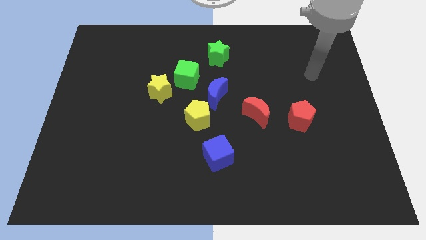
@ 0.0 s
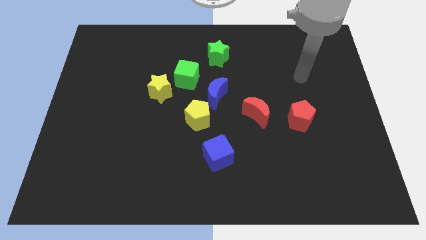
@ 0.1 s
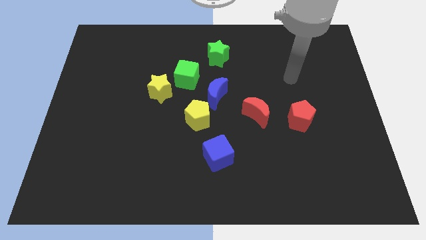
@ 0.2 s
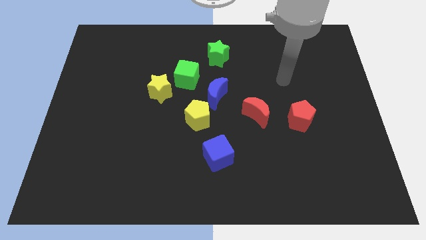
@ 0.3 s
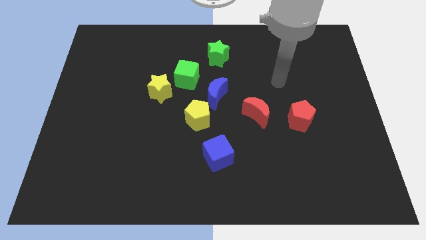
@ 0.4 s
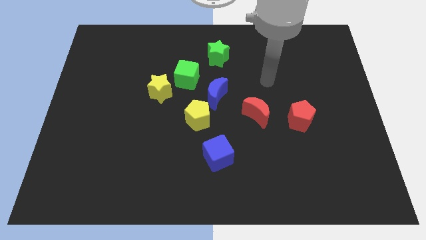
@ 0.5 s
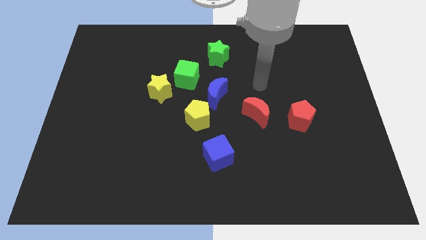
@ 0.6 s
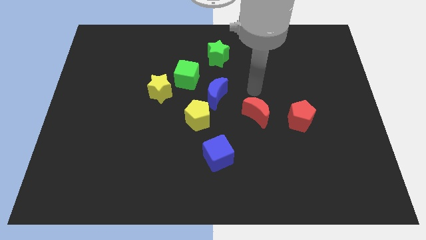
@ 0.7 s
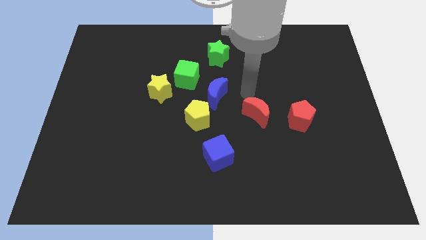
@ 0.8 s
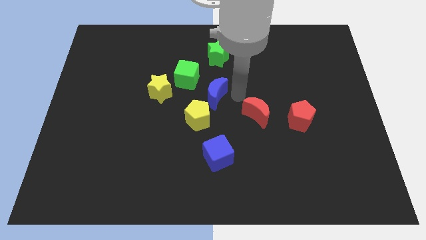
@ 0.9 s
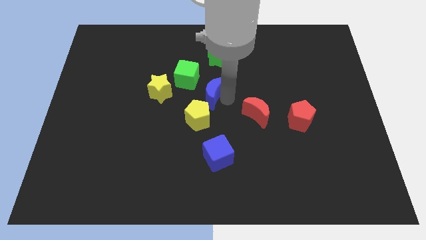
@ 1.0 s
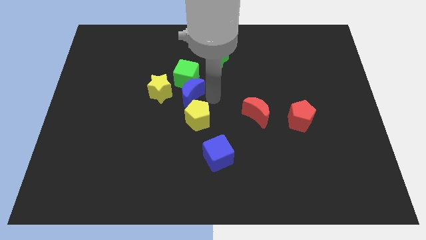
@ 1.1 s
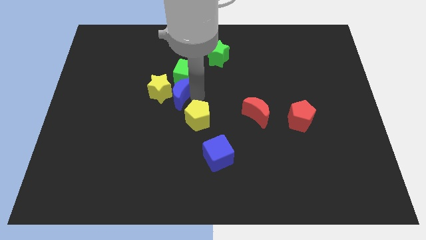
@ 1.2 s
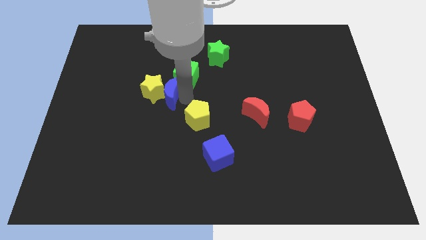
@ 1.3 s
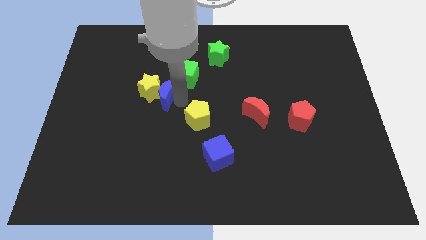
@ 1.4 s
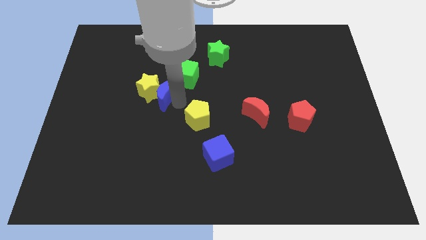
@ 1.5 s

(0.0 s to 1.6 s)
separate the yellow pentagon from the blue moon

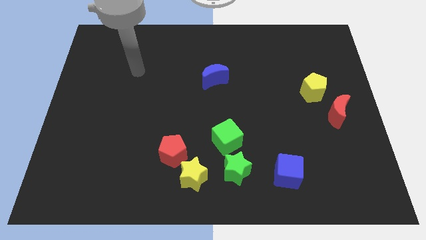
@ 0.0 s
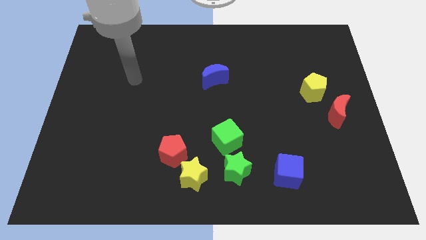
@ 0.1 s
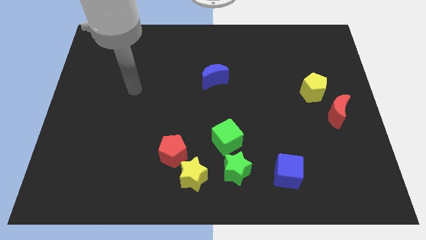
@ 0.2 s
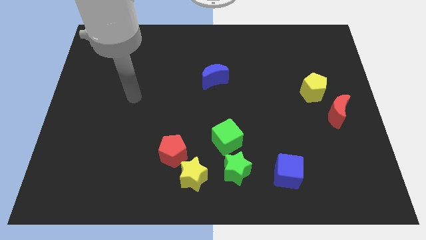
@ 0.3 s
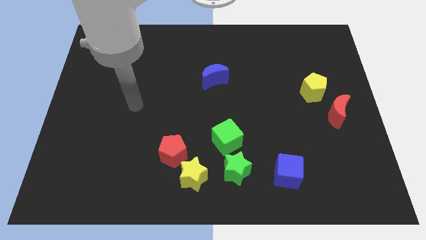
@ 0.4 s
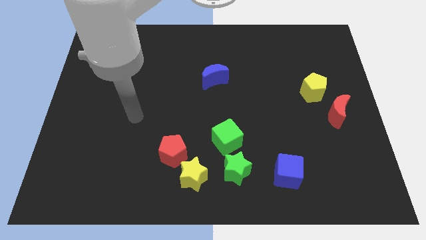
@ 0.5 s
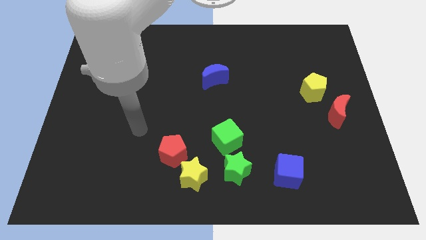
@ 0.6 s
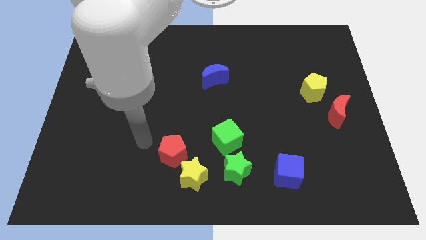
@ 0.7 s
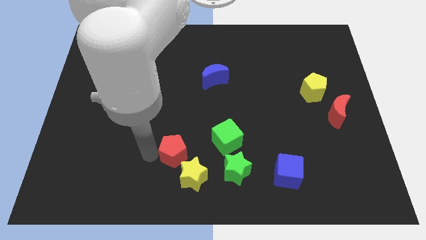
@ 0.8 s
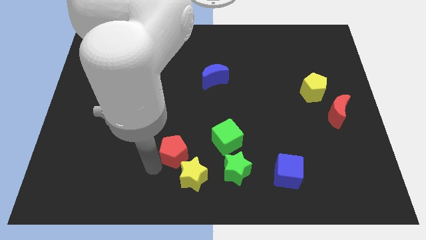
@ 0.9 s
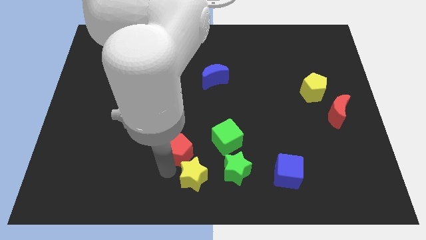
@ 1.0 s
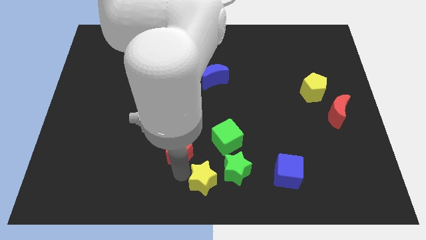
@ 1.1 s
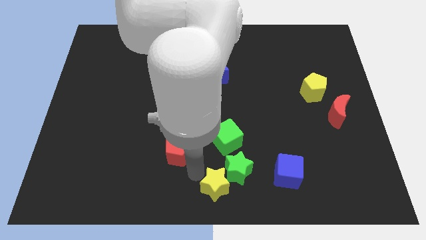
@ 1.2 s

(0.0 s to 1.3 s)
separate the red pentagon from the yellow star

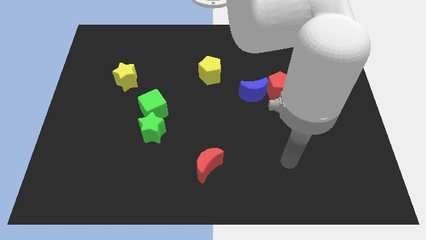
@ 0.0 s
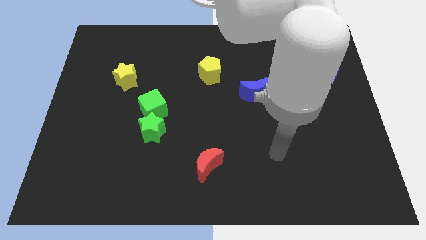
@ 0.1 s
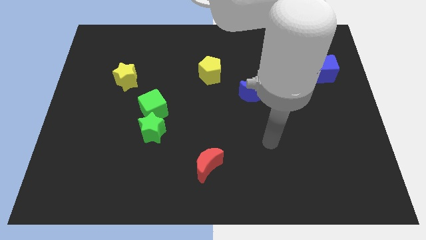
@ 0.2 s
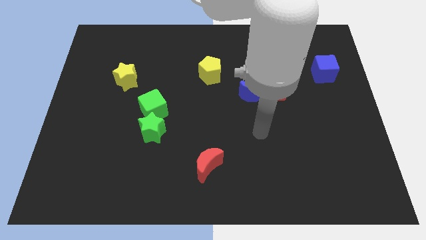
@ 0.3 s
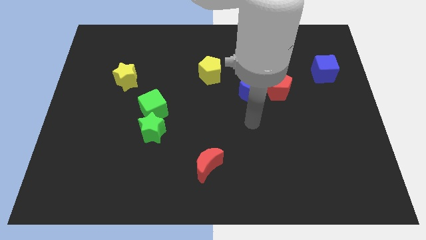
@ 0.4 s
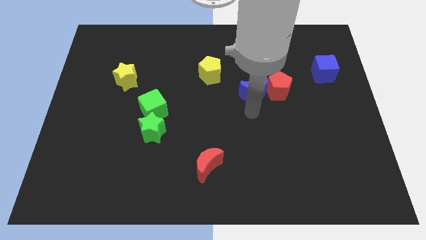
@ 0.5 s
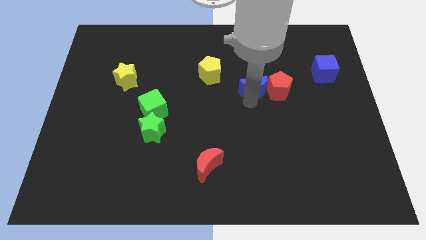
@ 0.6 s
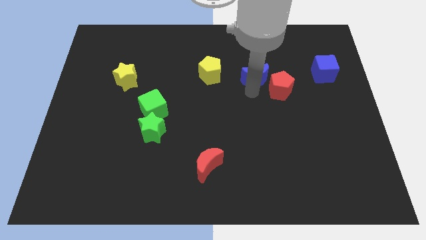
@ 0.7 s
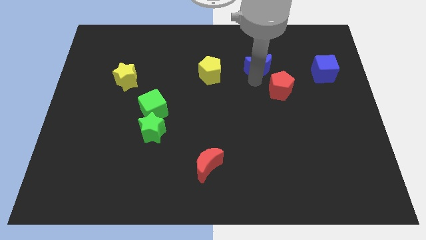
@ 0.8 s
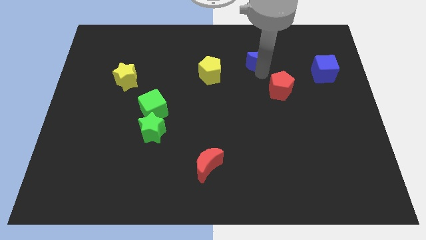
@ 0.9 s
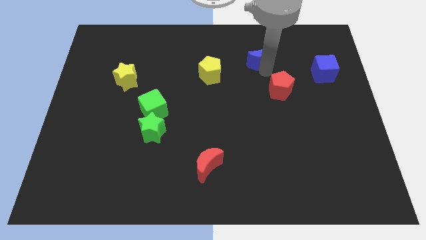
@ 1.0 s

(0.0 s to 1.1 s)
separate the red pentagon from the blue moon

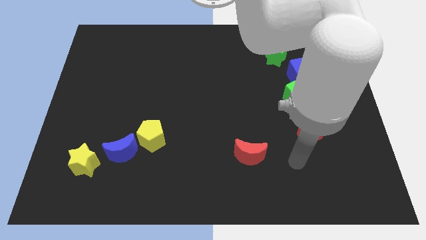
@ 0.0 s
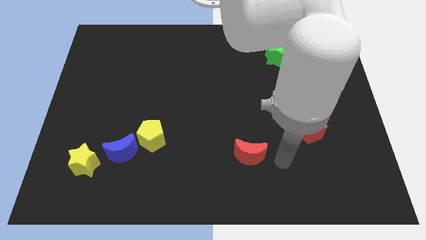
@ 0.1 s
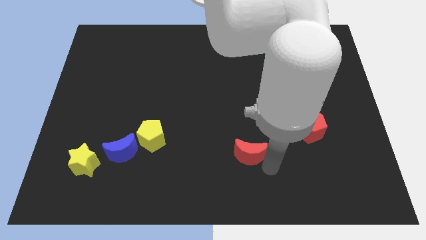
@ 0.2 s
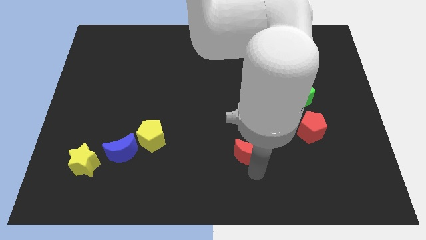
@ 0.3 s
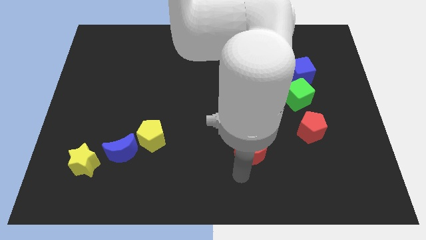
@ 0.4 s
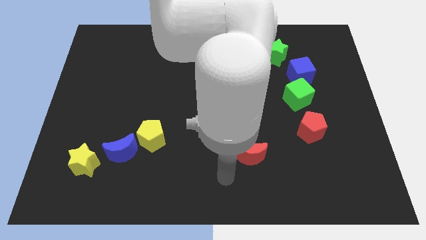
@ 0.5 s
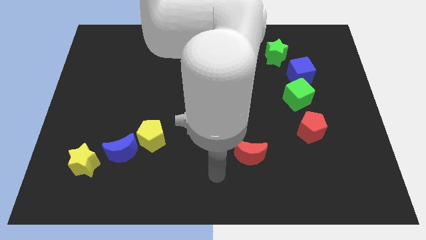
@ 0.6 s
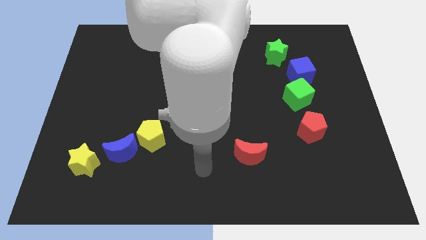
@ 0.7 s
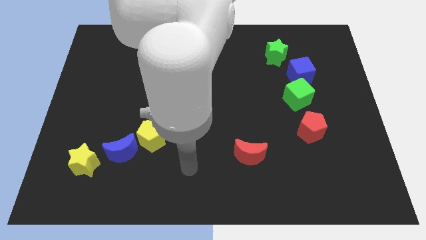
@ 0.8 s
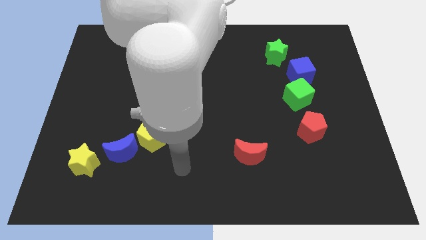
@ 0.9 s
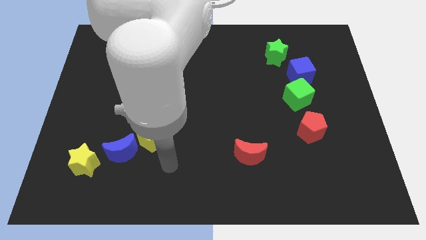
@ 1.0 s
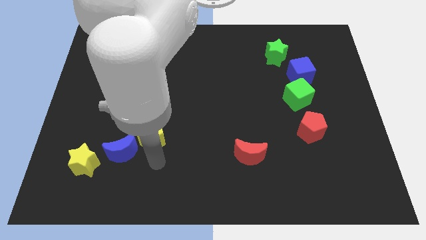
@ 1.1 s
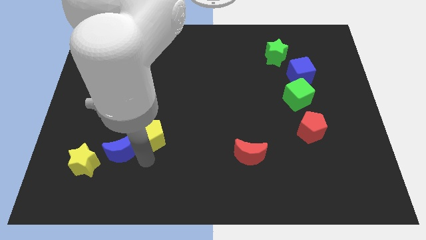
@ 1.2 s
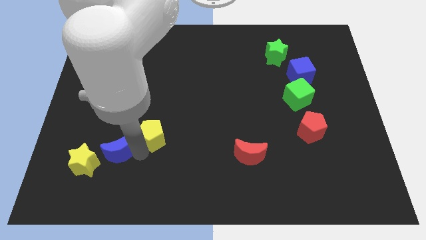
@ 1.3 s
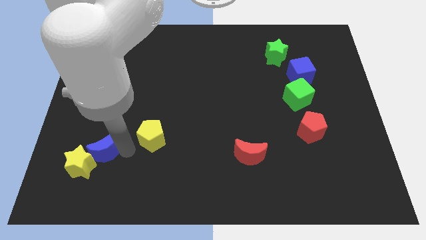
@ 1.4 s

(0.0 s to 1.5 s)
move the yellow pentagon away from the blue moon

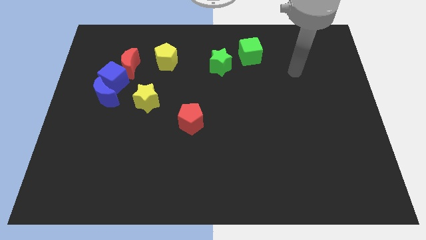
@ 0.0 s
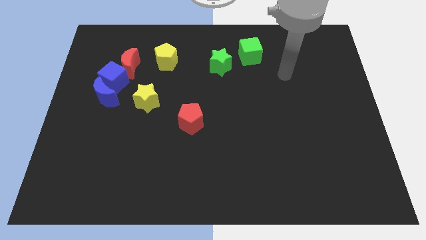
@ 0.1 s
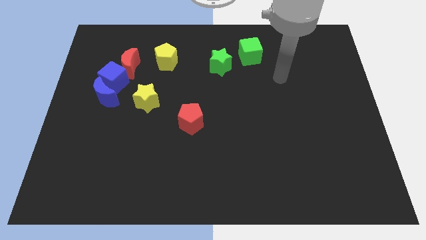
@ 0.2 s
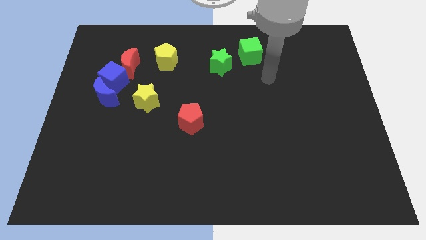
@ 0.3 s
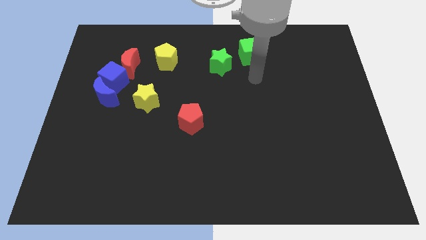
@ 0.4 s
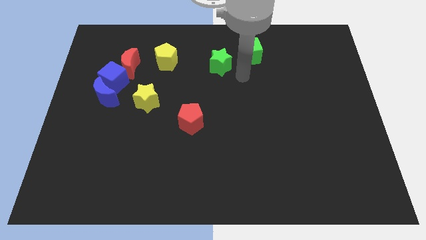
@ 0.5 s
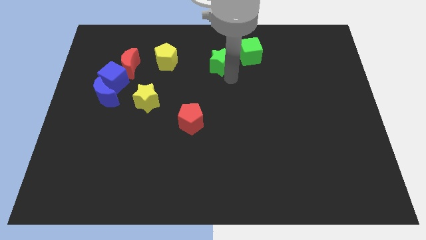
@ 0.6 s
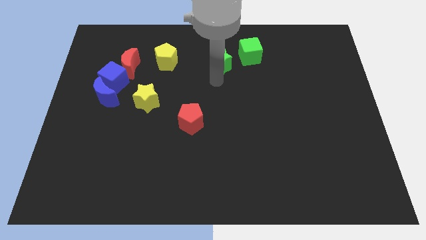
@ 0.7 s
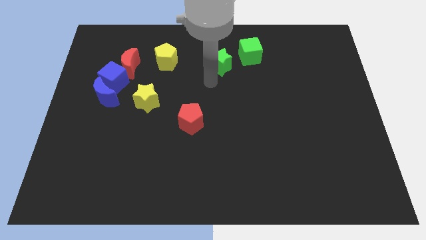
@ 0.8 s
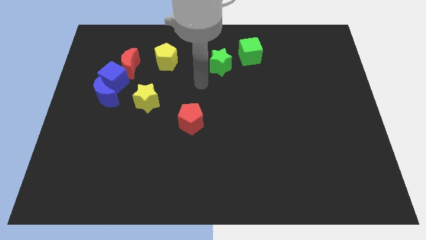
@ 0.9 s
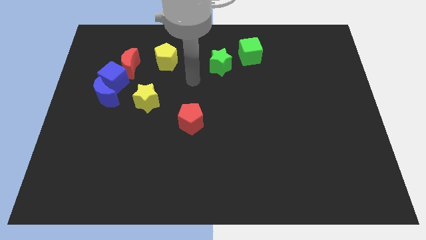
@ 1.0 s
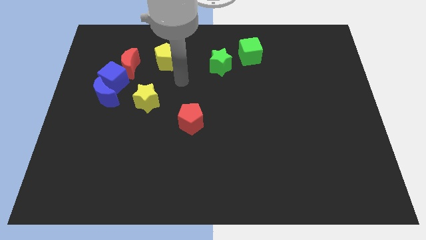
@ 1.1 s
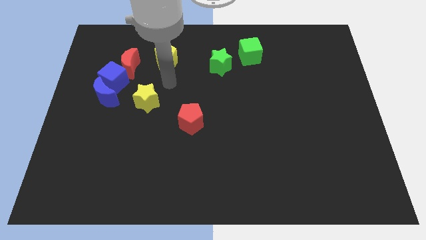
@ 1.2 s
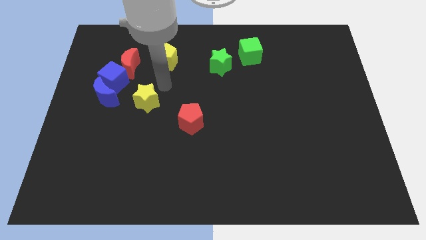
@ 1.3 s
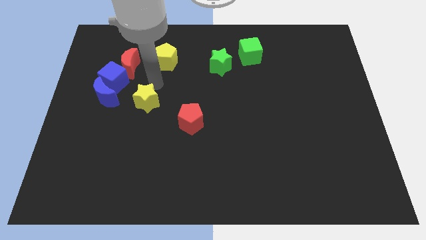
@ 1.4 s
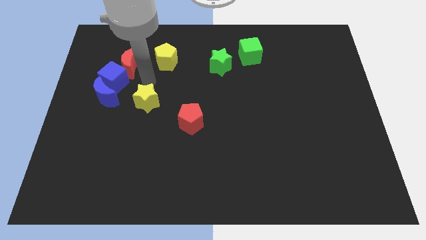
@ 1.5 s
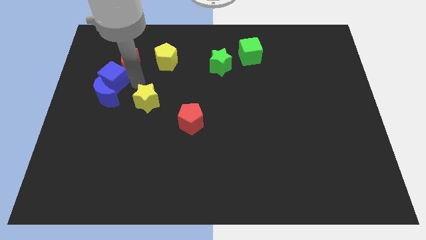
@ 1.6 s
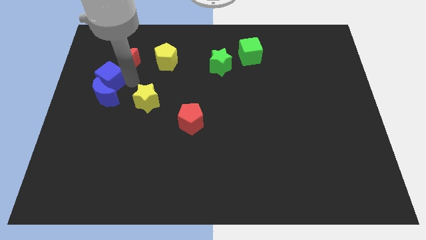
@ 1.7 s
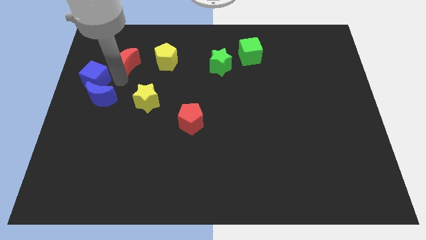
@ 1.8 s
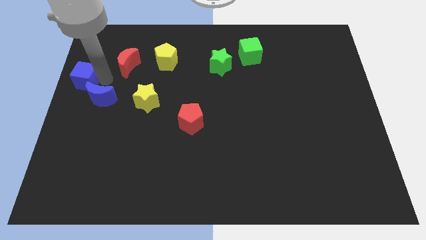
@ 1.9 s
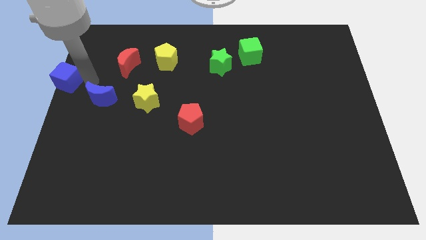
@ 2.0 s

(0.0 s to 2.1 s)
pull the blue moon apart from the blue cube

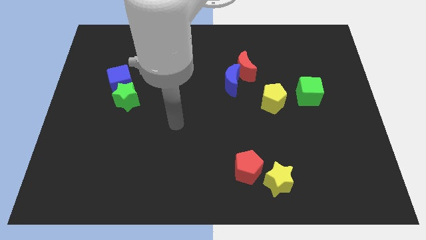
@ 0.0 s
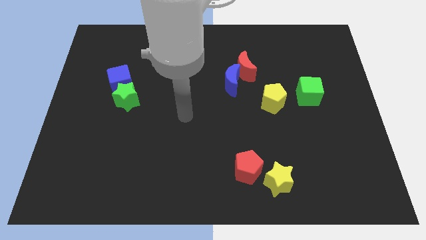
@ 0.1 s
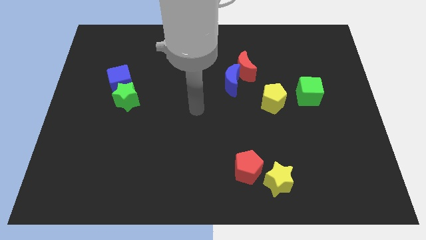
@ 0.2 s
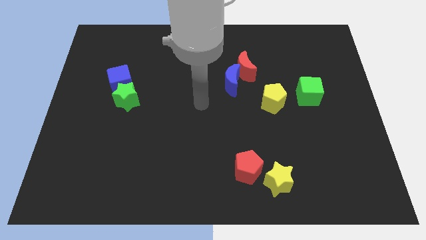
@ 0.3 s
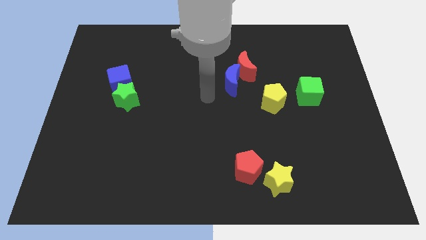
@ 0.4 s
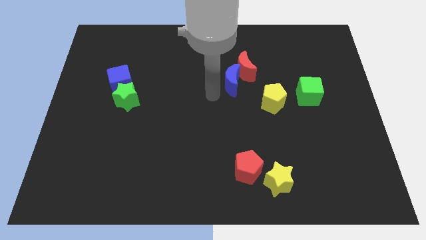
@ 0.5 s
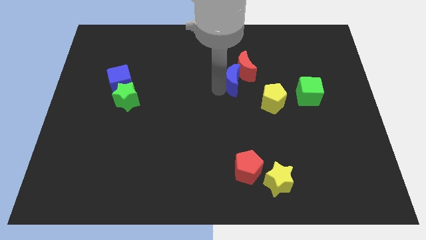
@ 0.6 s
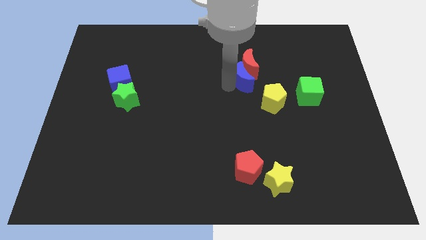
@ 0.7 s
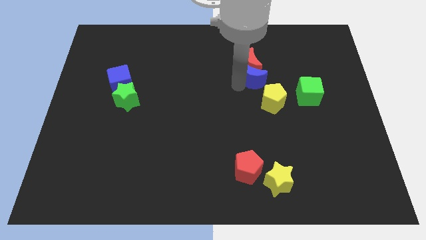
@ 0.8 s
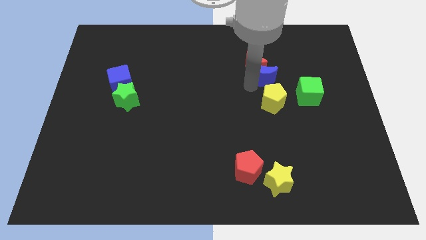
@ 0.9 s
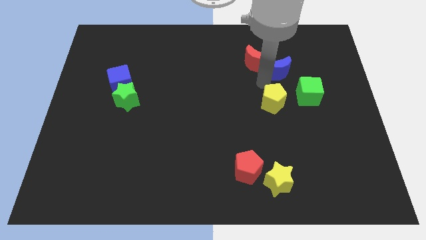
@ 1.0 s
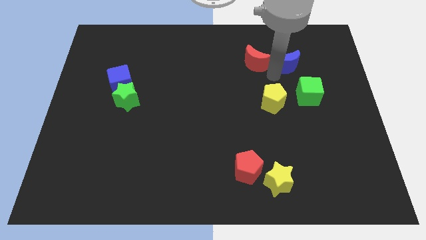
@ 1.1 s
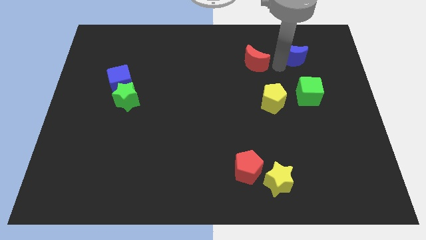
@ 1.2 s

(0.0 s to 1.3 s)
move the red moon away from the blue moon

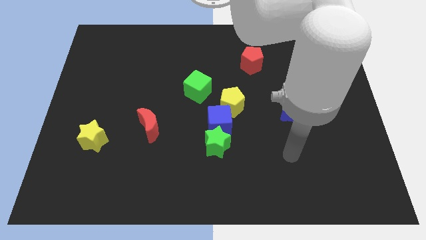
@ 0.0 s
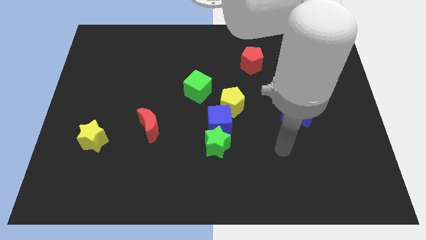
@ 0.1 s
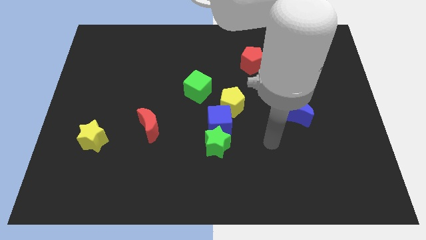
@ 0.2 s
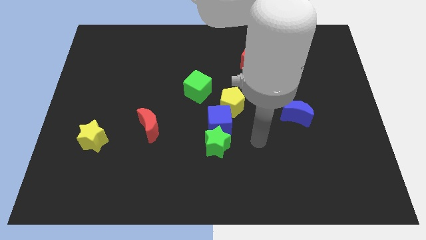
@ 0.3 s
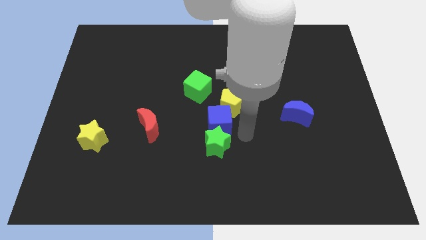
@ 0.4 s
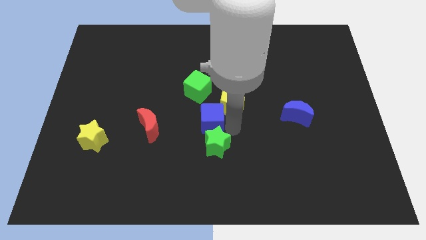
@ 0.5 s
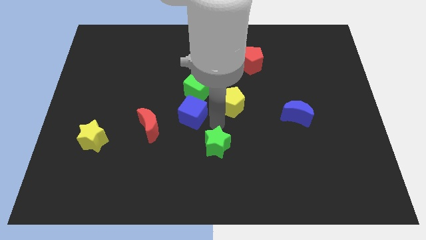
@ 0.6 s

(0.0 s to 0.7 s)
move the green star away from the blue cube
